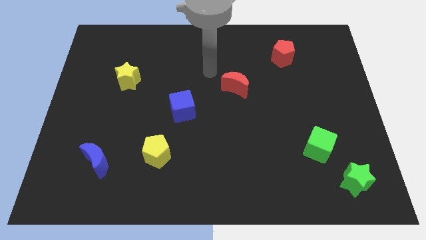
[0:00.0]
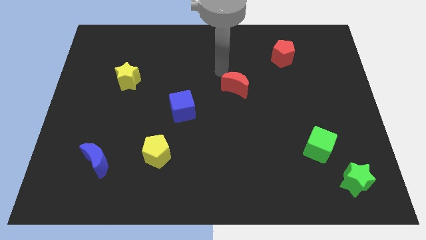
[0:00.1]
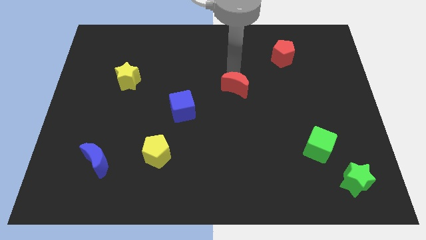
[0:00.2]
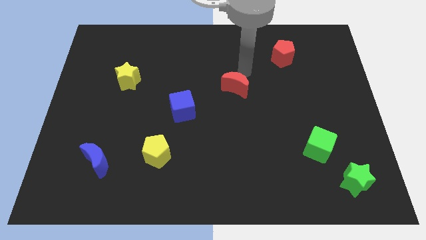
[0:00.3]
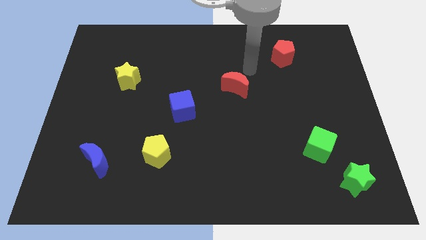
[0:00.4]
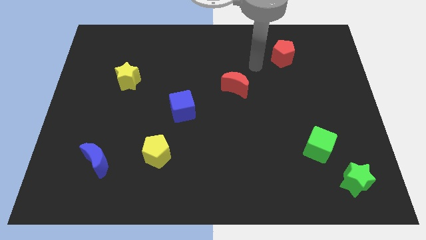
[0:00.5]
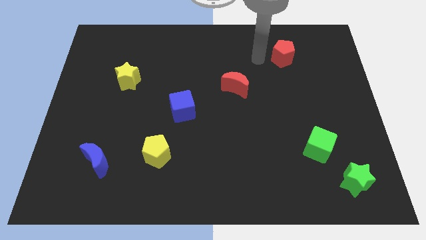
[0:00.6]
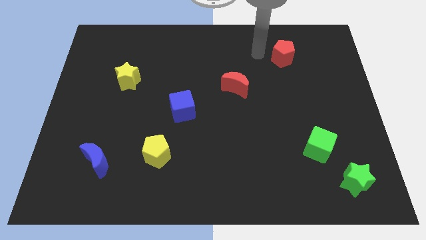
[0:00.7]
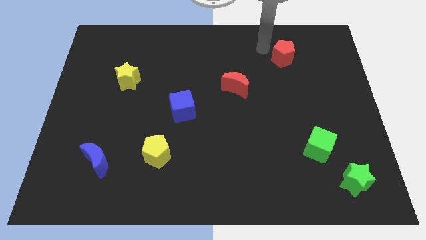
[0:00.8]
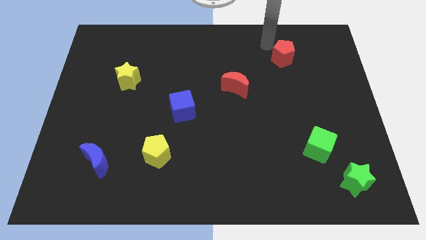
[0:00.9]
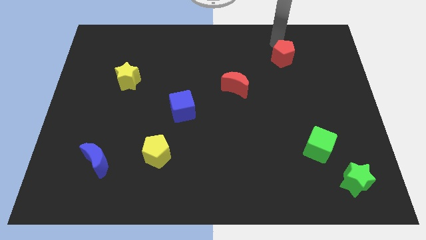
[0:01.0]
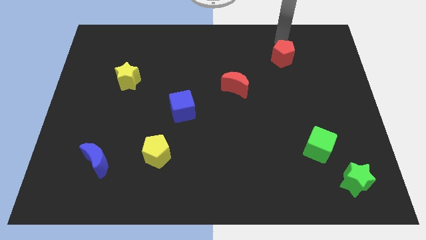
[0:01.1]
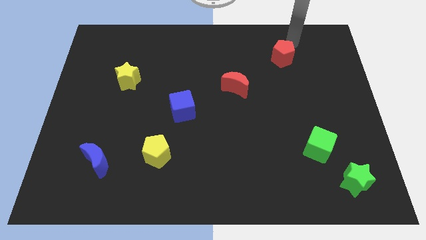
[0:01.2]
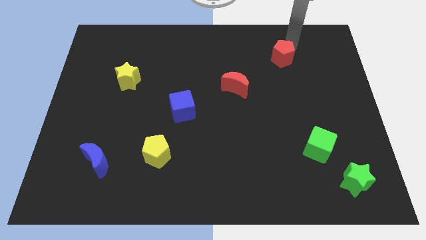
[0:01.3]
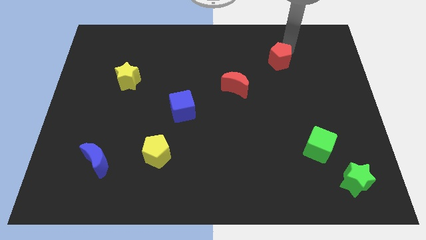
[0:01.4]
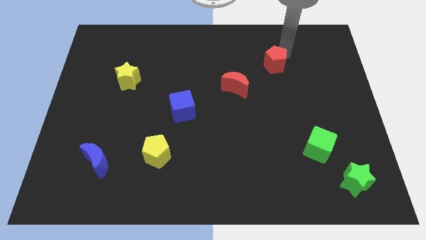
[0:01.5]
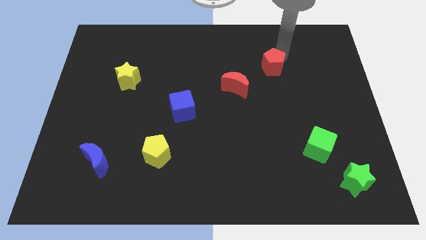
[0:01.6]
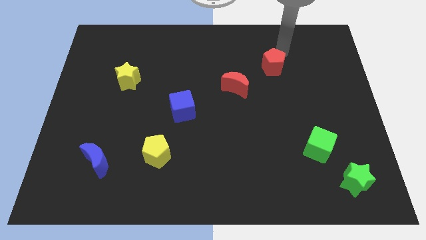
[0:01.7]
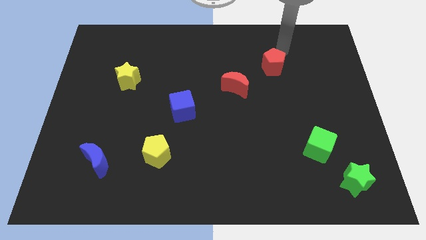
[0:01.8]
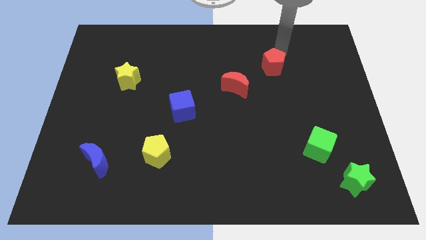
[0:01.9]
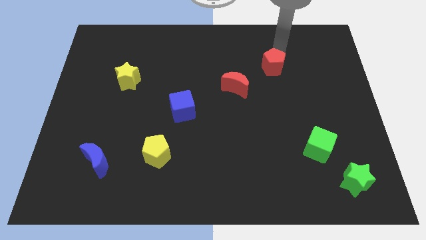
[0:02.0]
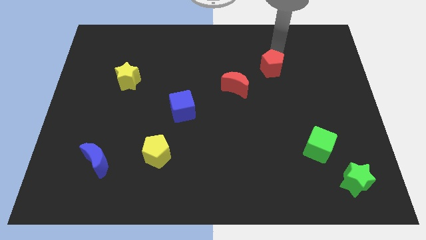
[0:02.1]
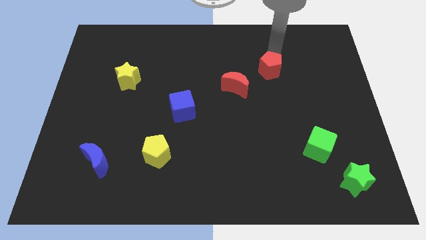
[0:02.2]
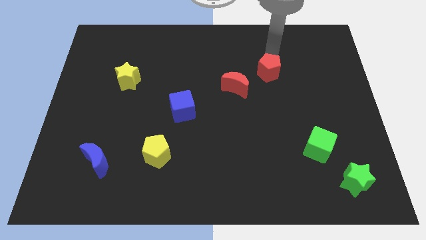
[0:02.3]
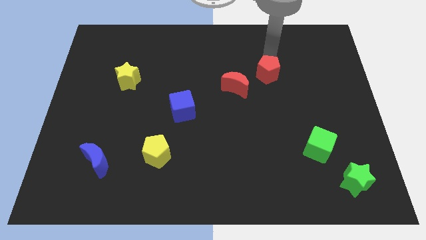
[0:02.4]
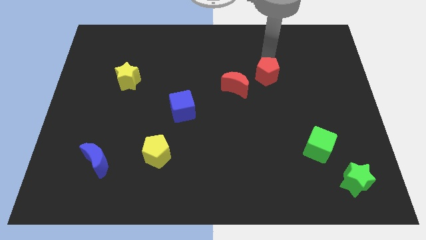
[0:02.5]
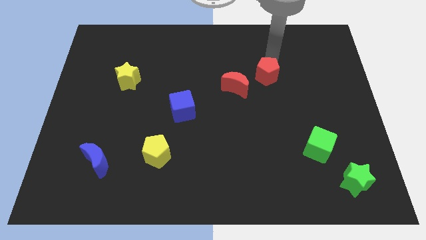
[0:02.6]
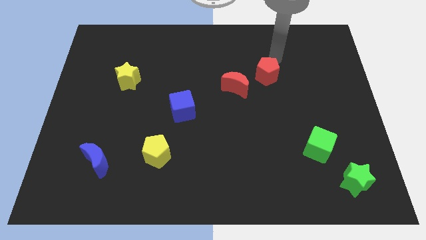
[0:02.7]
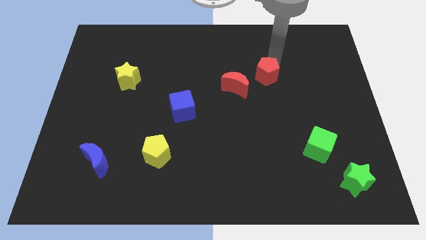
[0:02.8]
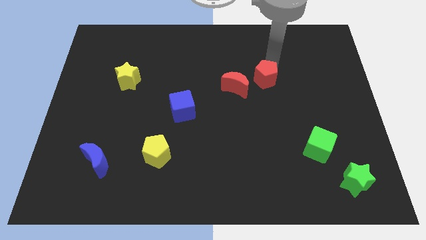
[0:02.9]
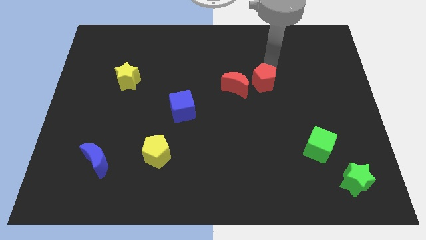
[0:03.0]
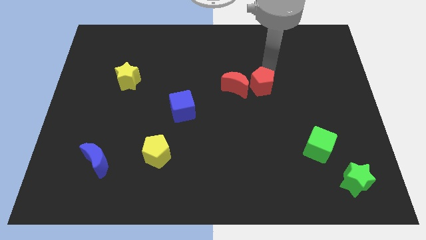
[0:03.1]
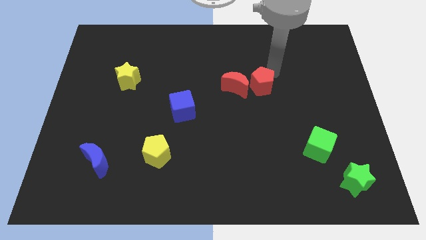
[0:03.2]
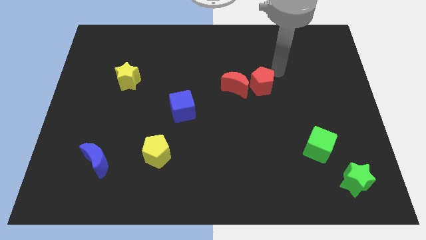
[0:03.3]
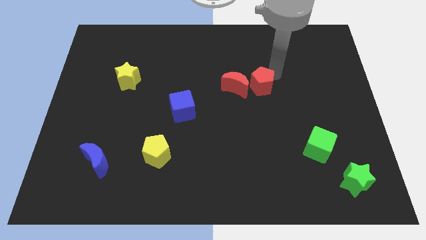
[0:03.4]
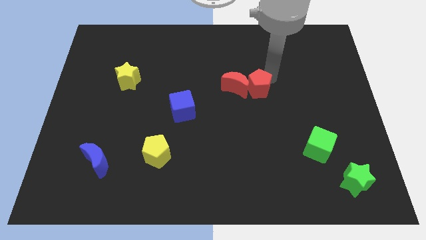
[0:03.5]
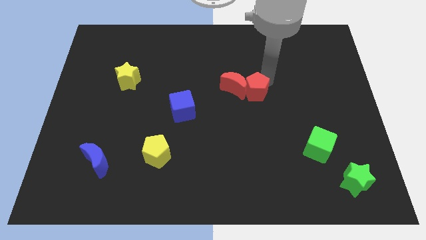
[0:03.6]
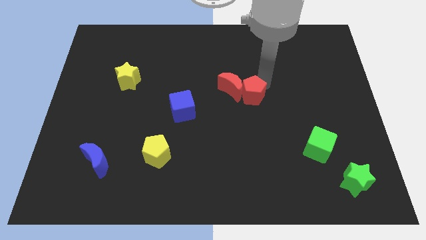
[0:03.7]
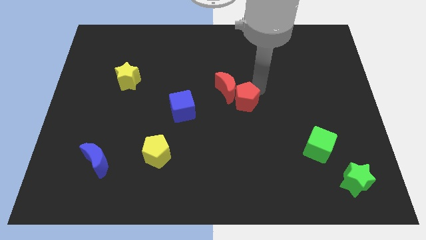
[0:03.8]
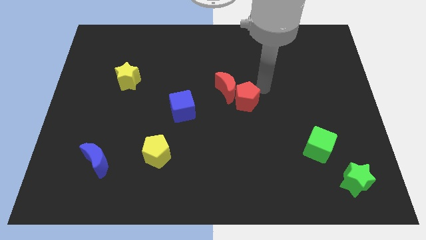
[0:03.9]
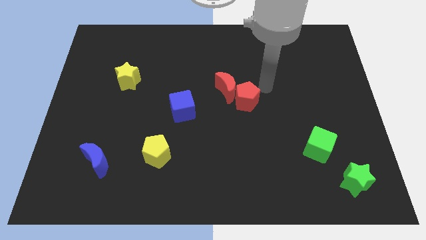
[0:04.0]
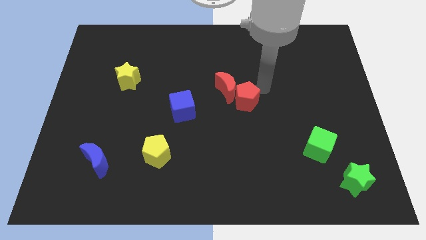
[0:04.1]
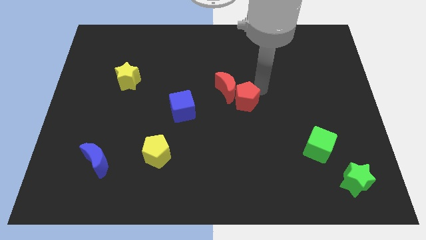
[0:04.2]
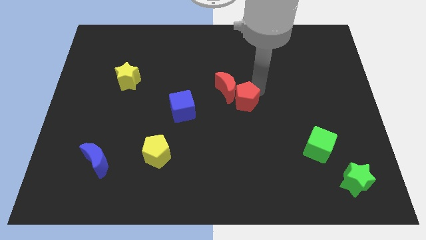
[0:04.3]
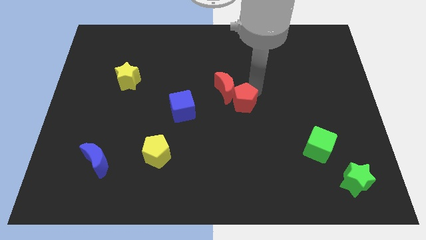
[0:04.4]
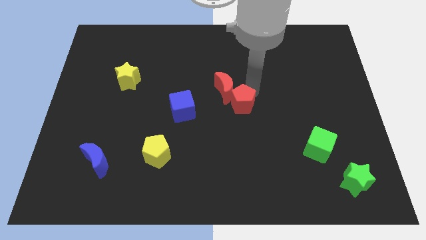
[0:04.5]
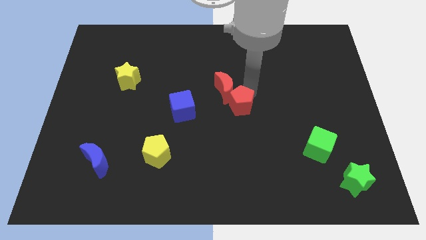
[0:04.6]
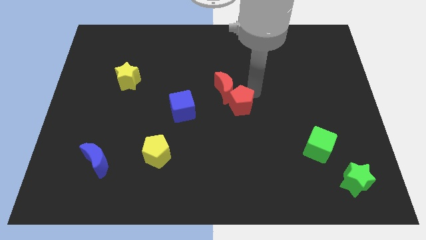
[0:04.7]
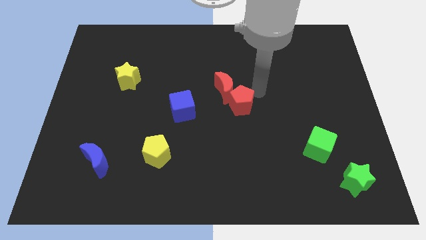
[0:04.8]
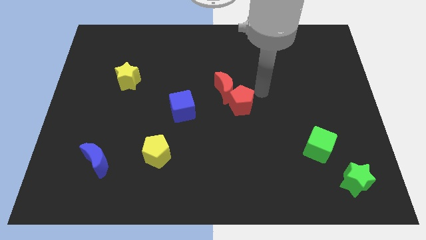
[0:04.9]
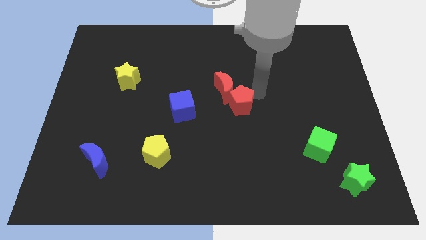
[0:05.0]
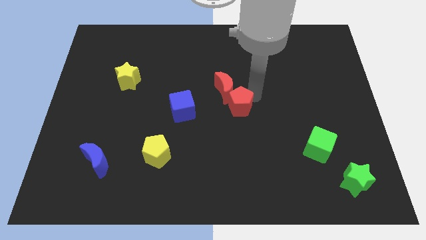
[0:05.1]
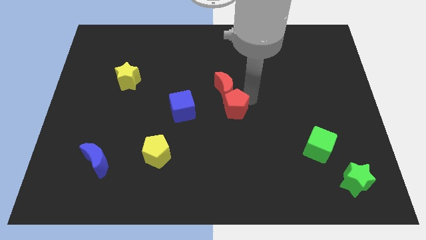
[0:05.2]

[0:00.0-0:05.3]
push the red pentagon downwards and left

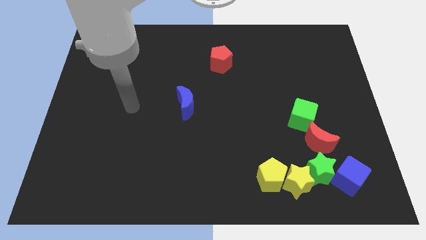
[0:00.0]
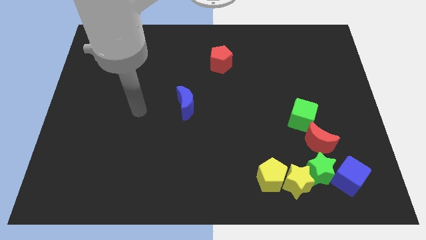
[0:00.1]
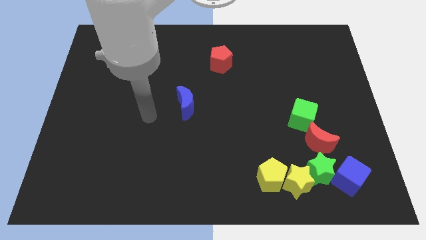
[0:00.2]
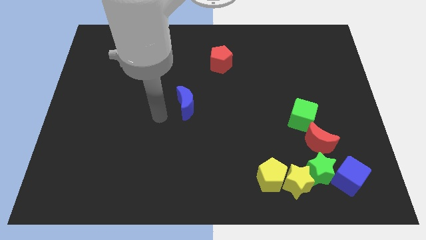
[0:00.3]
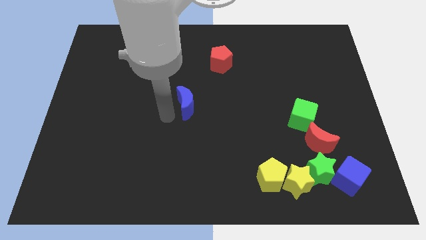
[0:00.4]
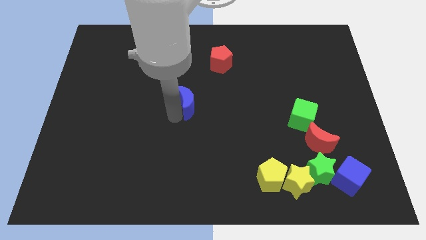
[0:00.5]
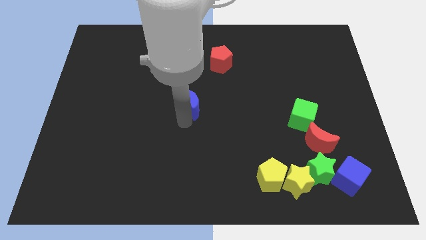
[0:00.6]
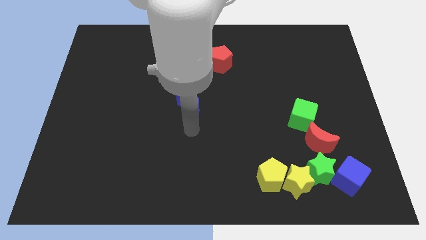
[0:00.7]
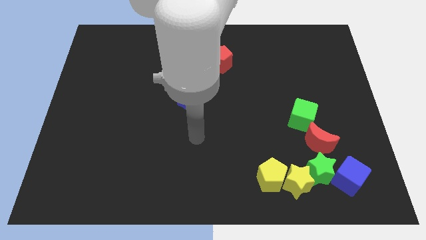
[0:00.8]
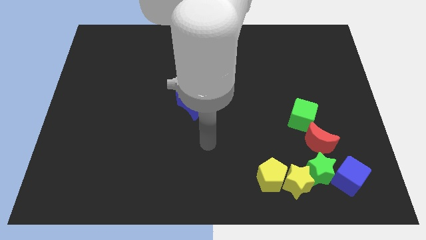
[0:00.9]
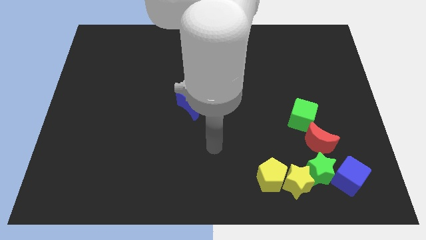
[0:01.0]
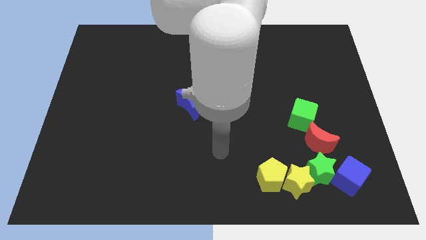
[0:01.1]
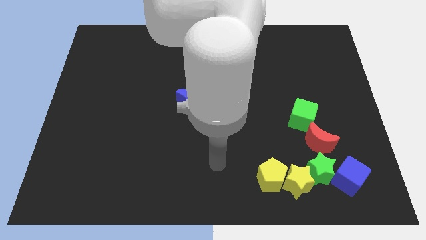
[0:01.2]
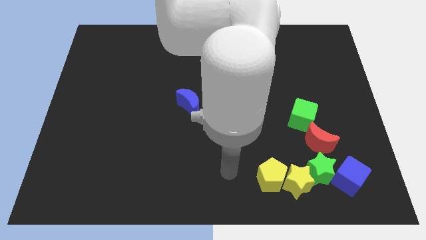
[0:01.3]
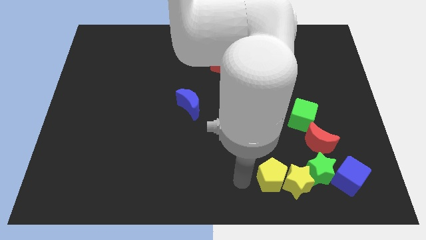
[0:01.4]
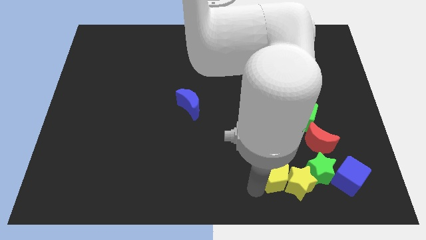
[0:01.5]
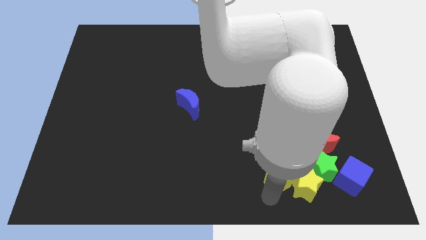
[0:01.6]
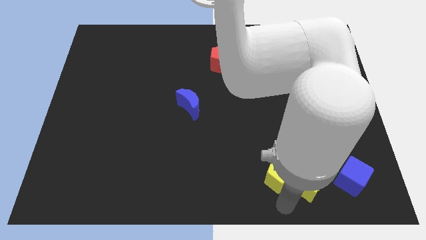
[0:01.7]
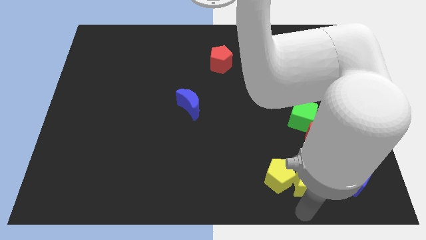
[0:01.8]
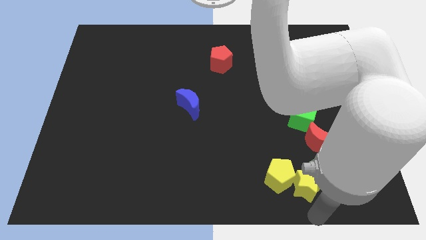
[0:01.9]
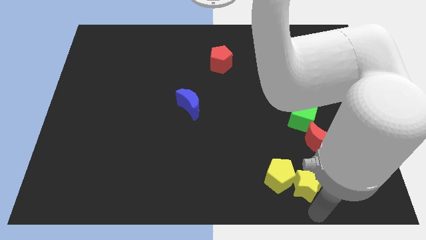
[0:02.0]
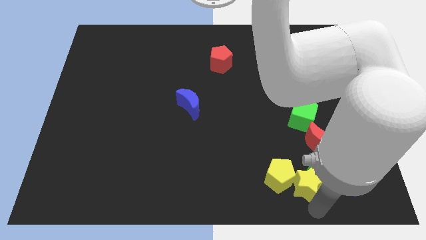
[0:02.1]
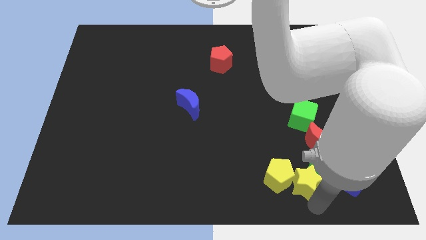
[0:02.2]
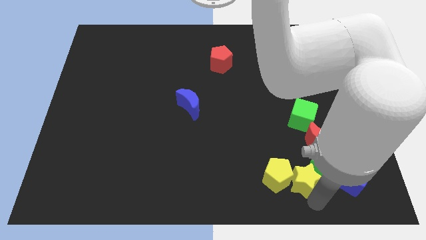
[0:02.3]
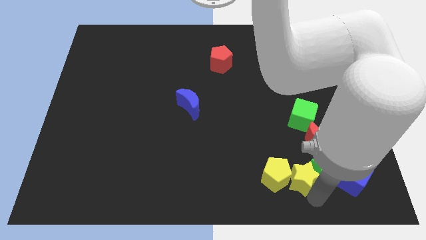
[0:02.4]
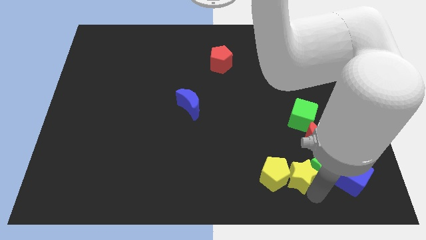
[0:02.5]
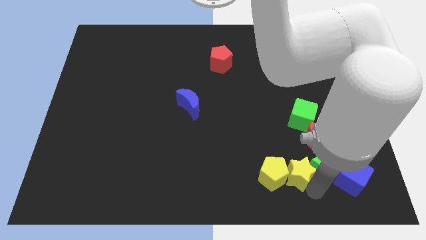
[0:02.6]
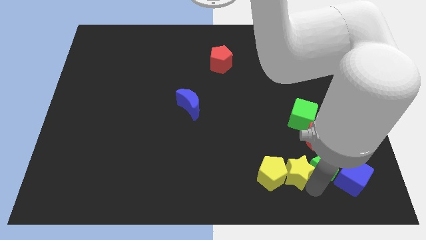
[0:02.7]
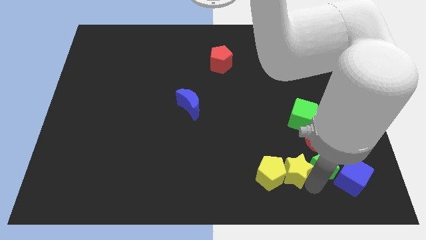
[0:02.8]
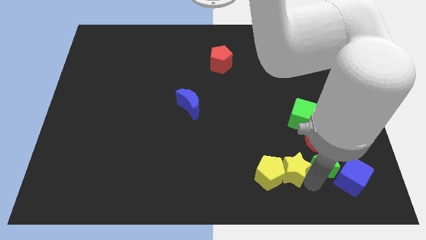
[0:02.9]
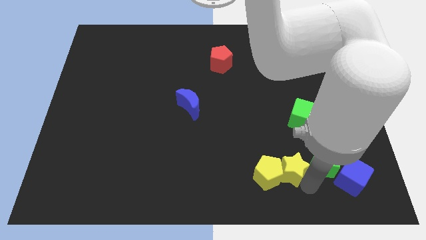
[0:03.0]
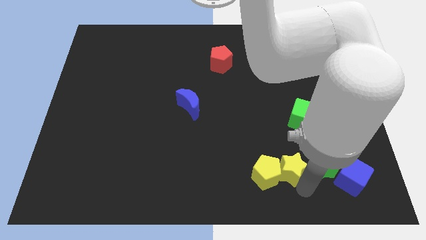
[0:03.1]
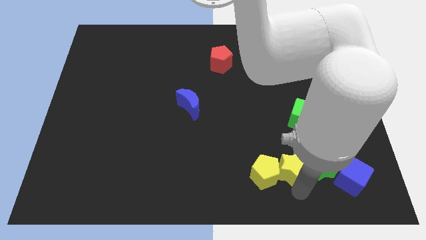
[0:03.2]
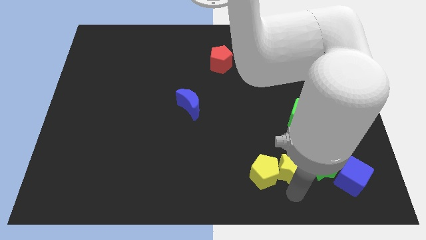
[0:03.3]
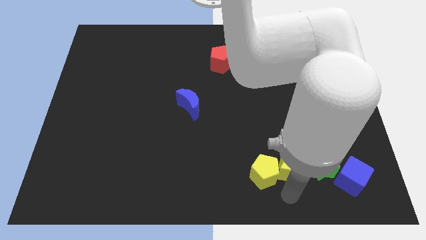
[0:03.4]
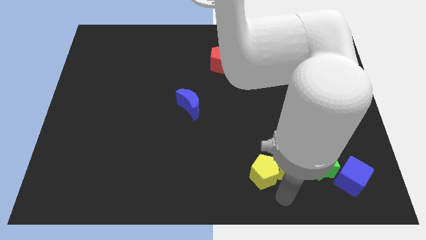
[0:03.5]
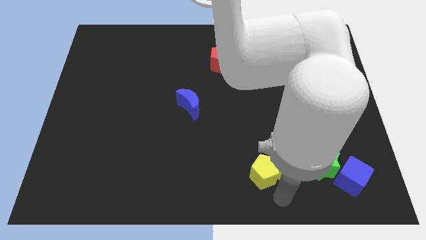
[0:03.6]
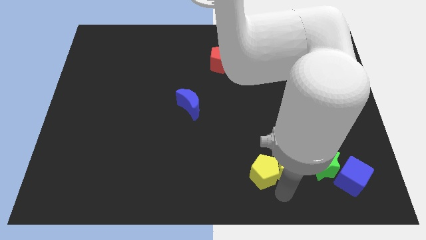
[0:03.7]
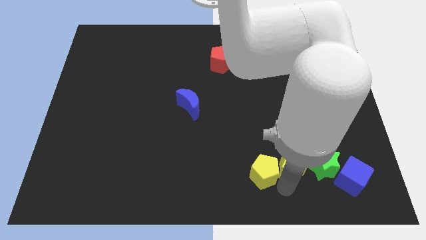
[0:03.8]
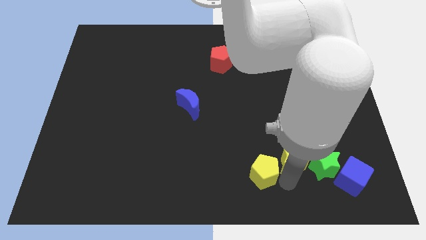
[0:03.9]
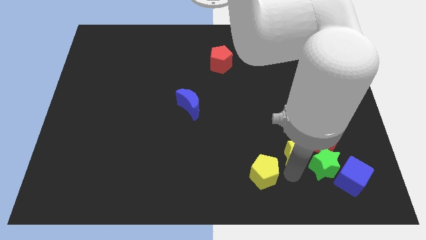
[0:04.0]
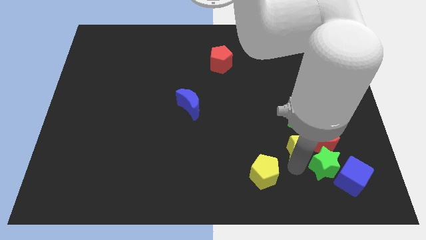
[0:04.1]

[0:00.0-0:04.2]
move the yellow star up a little
